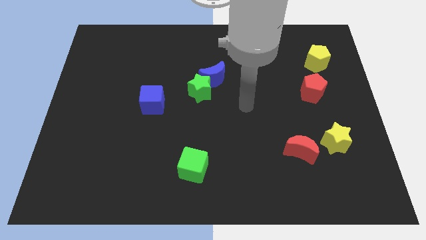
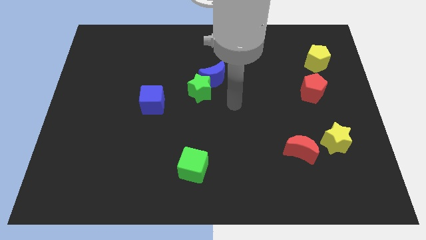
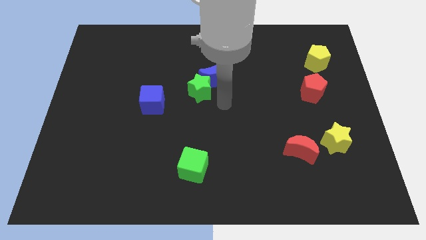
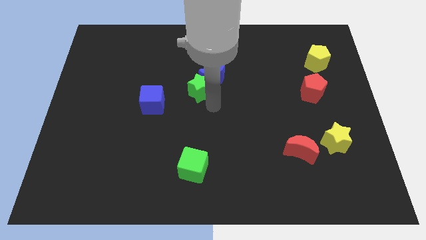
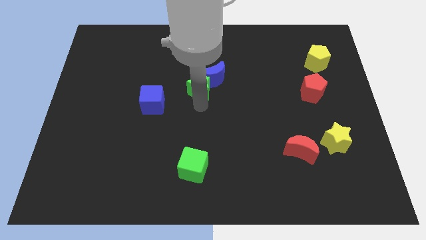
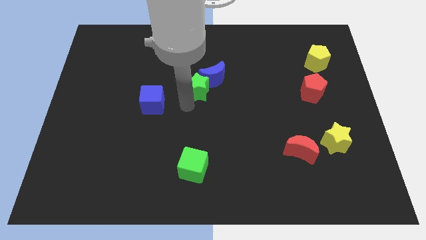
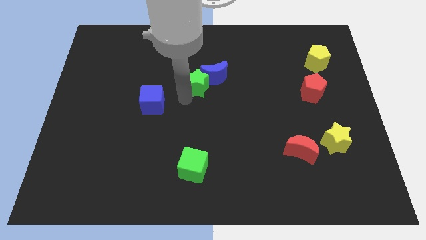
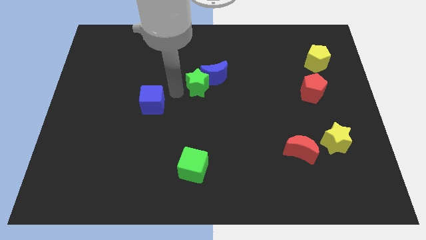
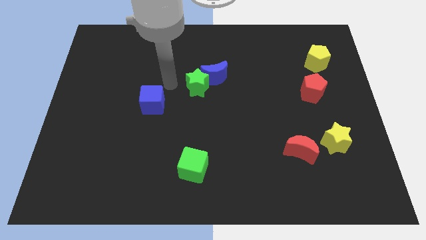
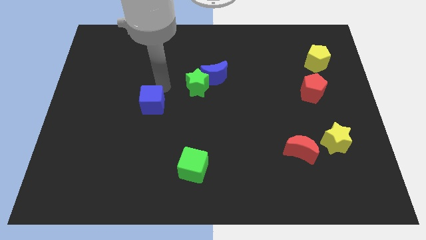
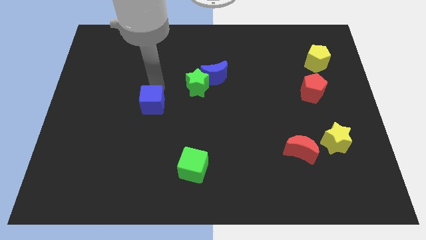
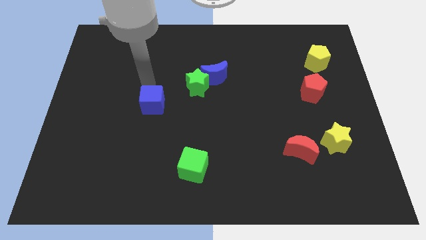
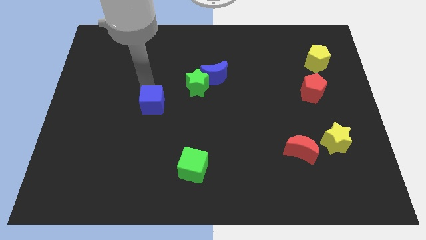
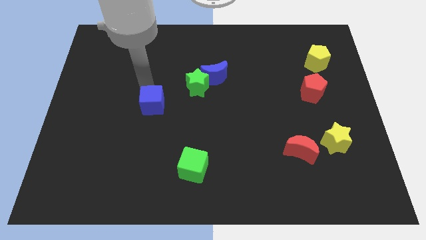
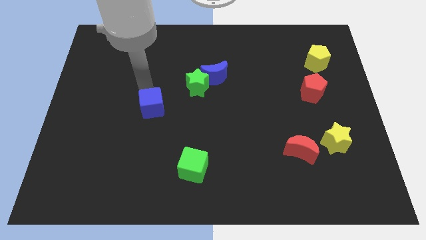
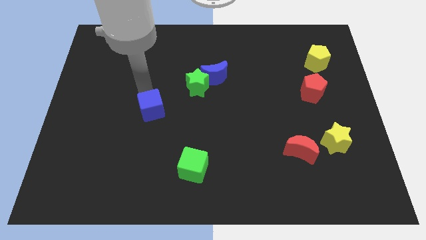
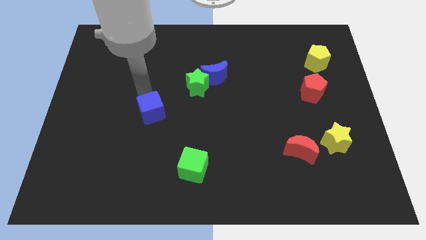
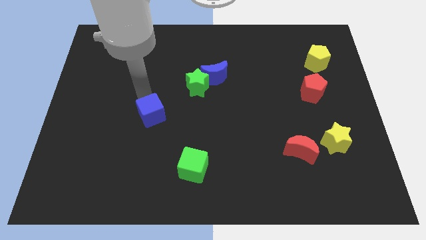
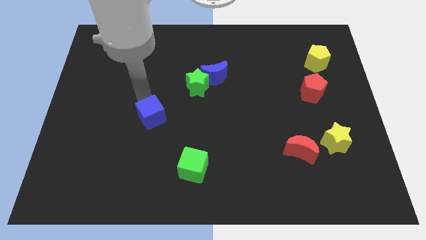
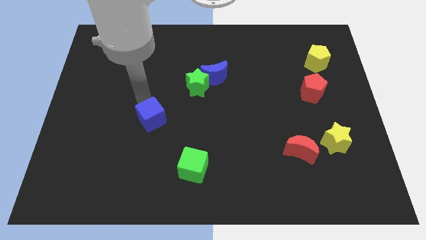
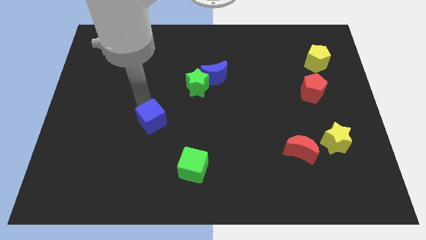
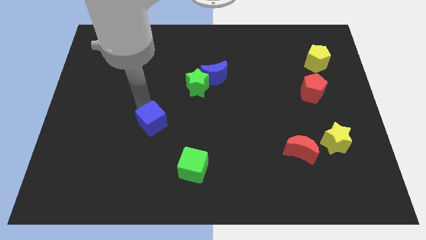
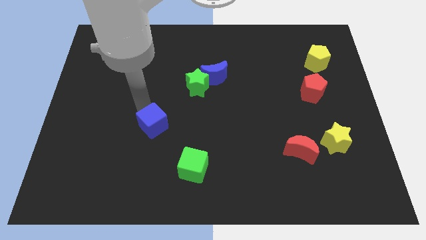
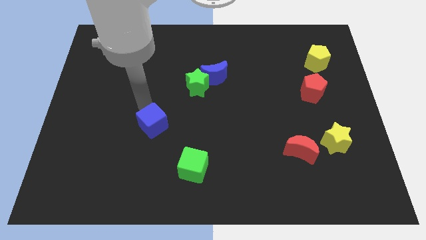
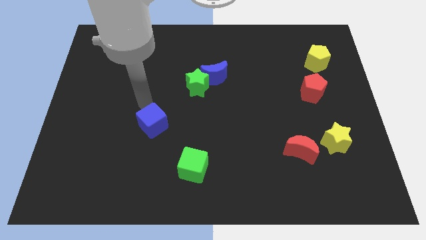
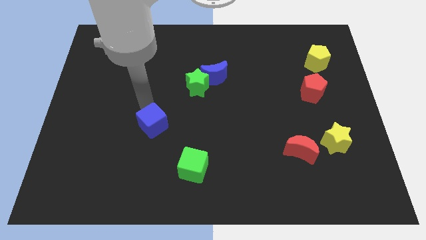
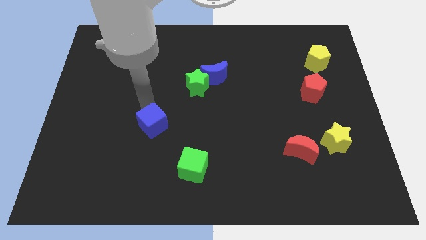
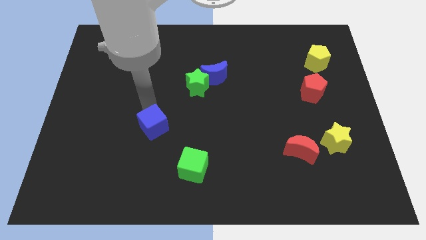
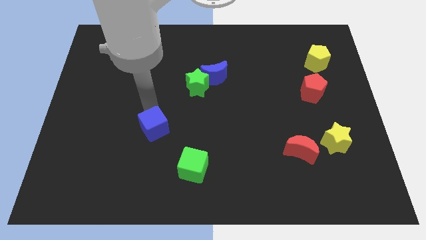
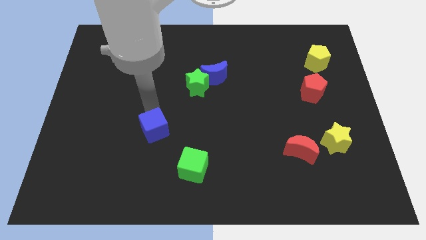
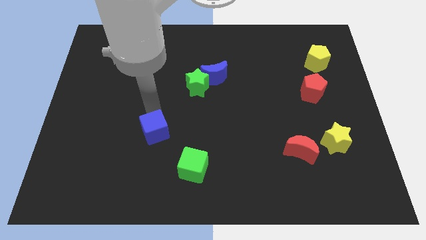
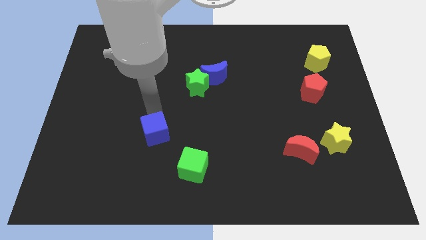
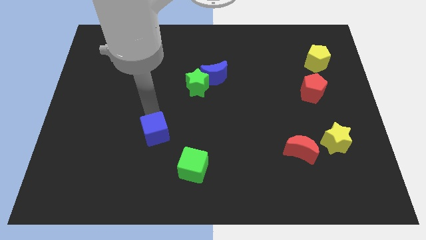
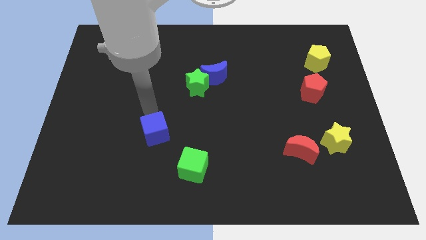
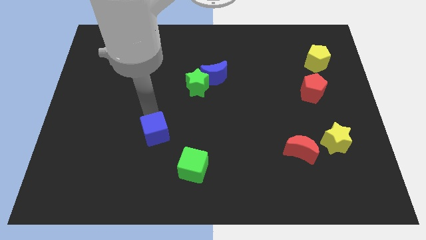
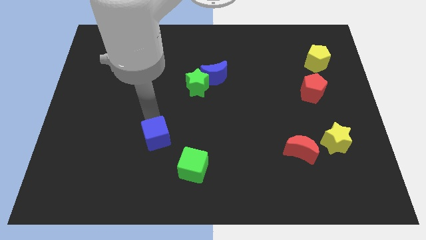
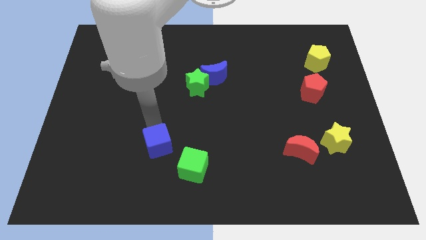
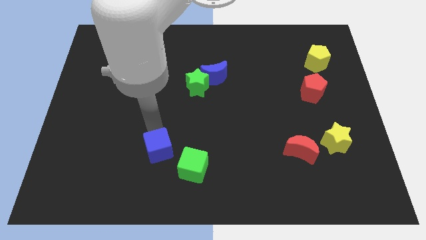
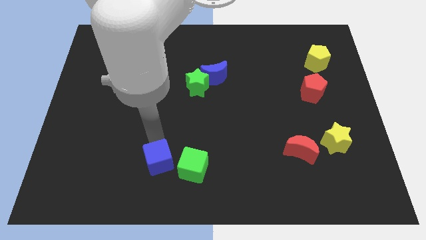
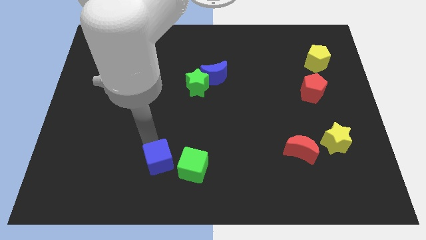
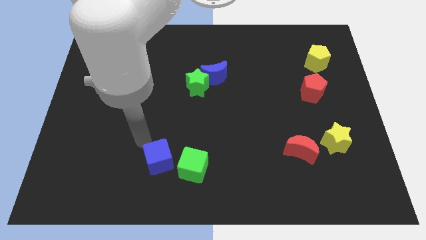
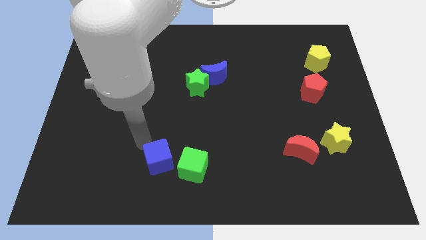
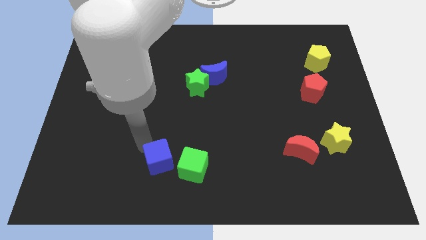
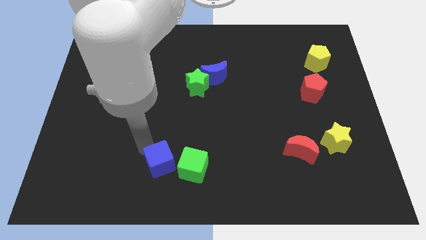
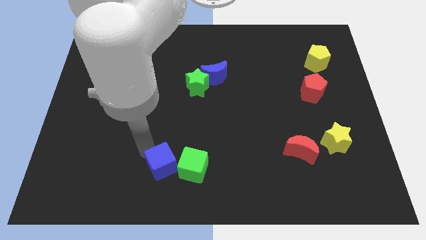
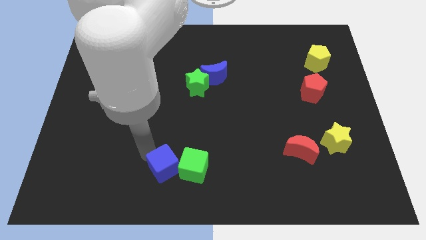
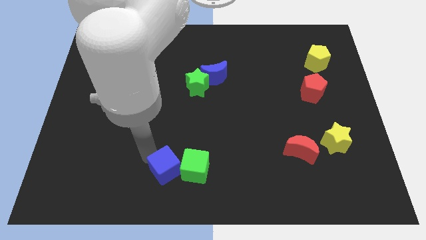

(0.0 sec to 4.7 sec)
push the blue cube to the bottom side

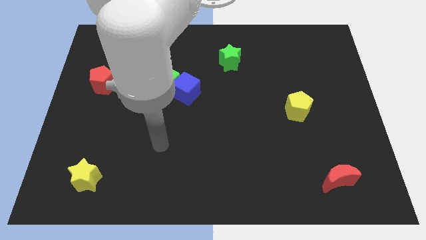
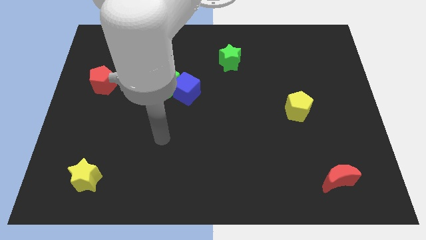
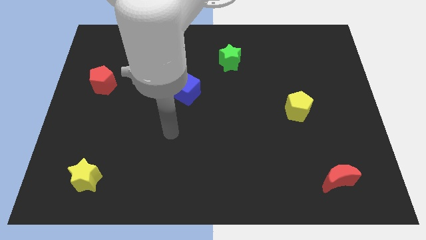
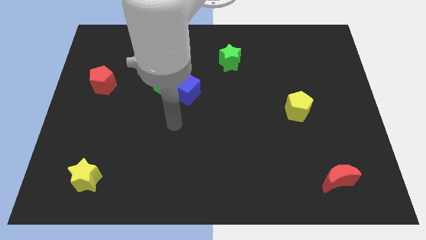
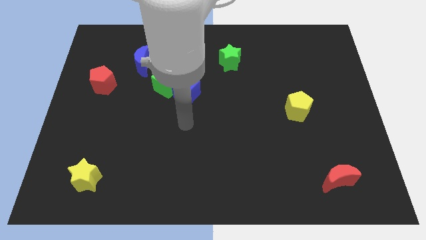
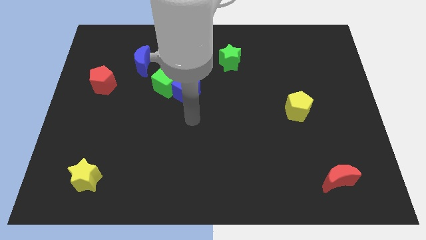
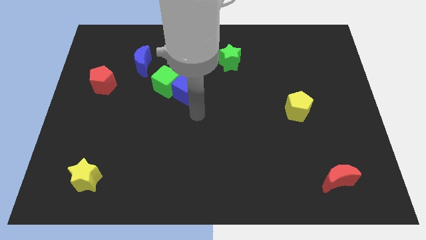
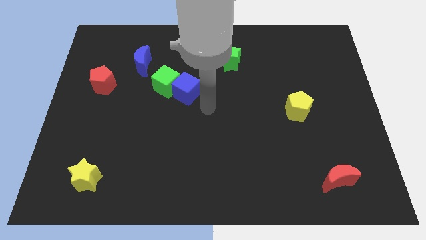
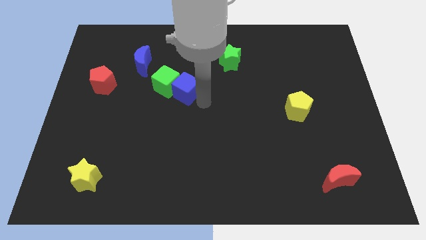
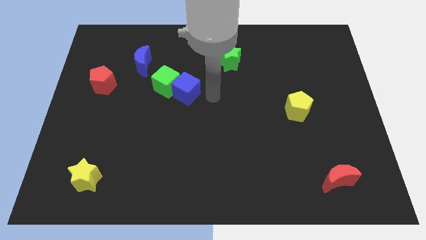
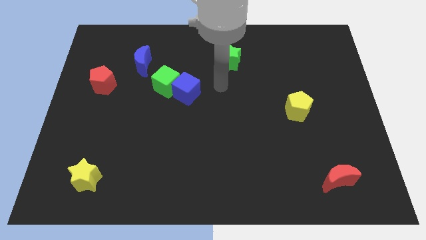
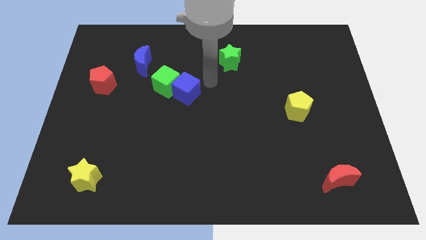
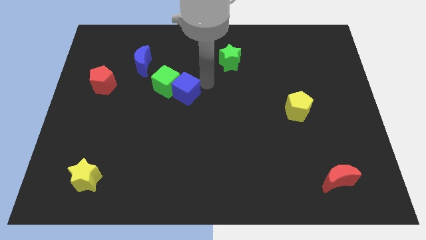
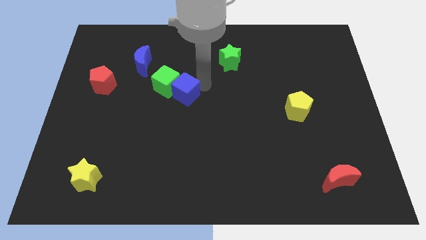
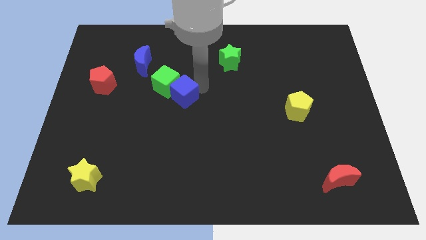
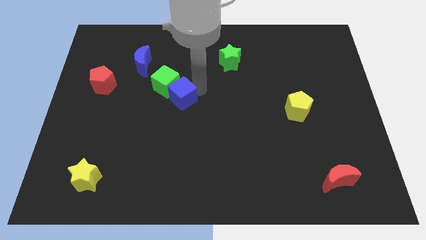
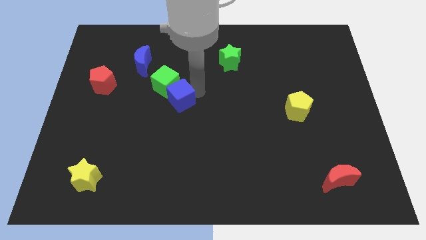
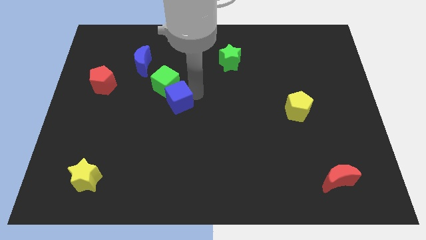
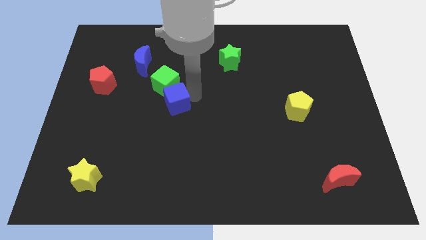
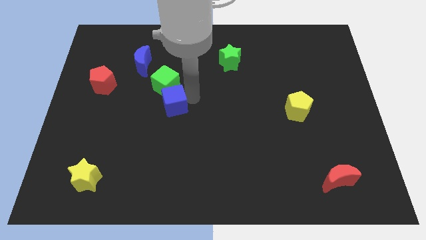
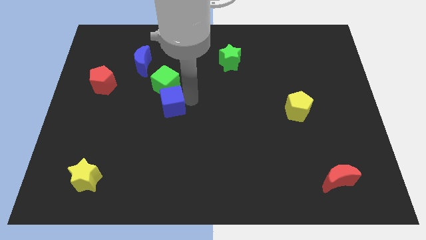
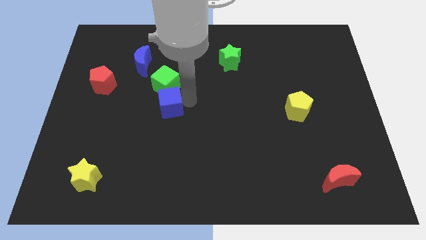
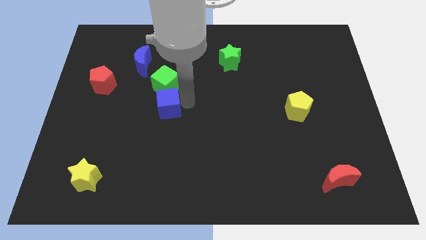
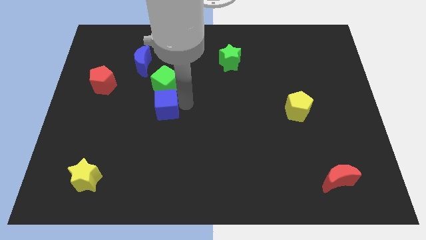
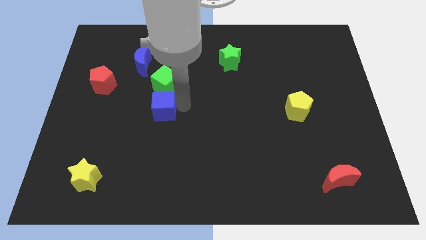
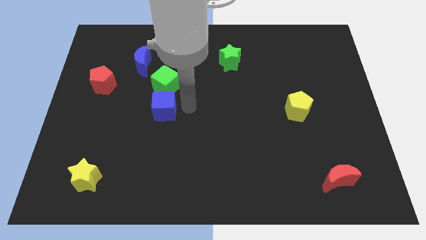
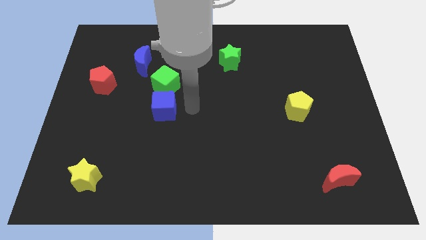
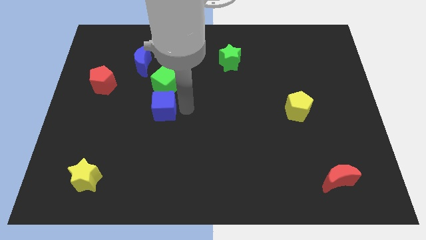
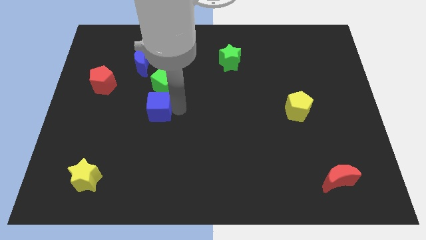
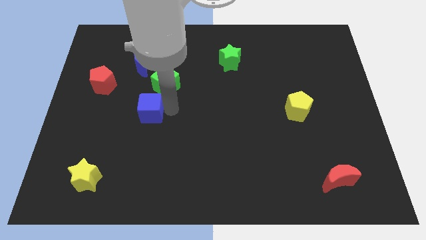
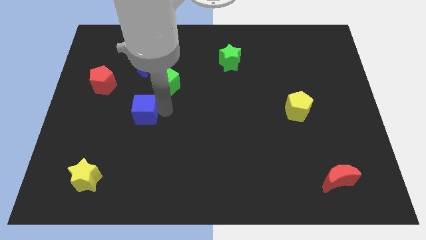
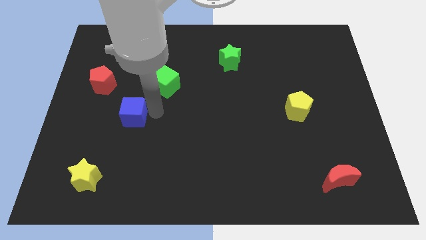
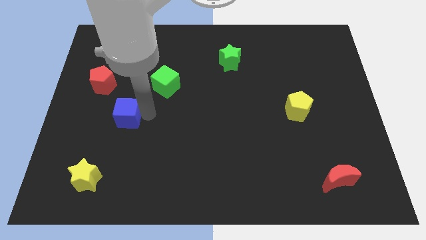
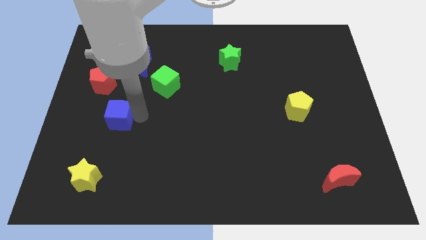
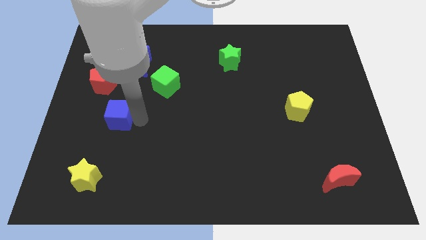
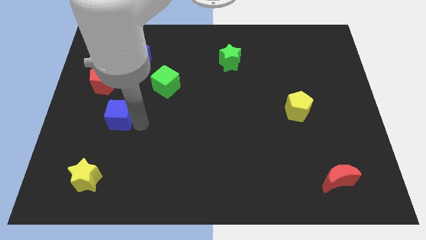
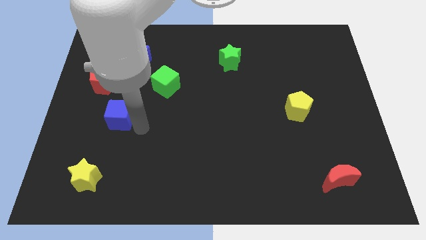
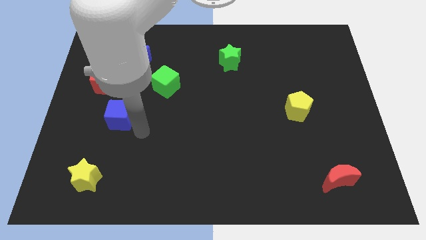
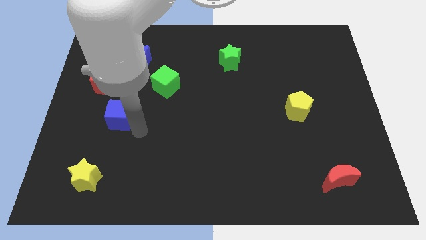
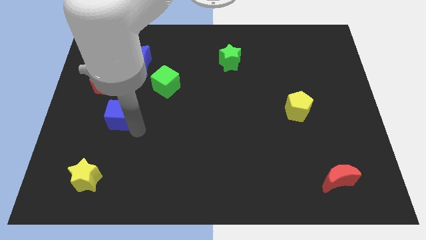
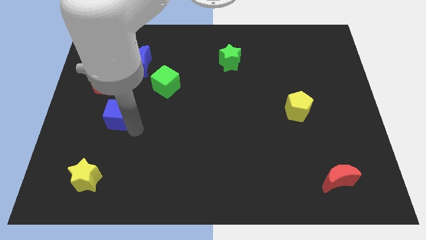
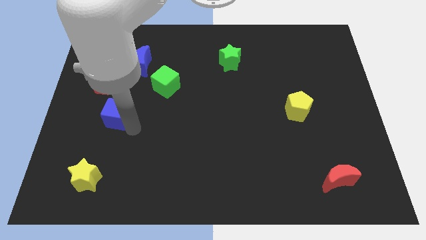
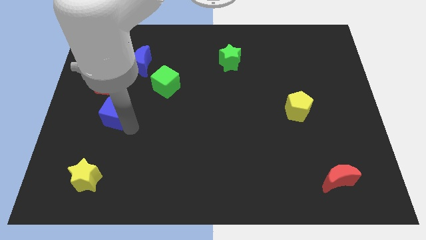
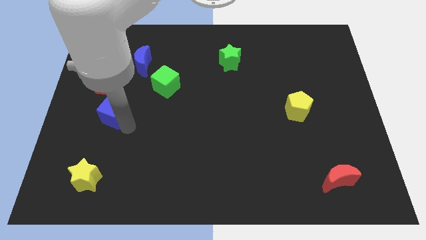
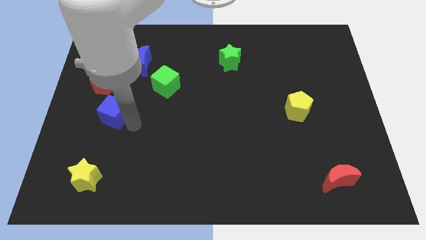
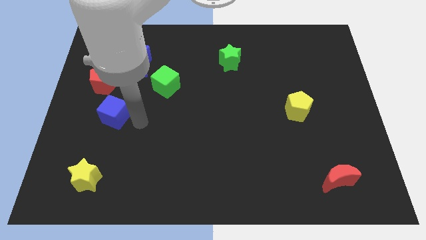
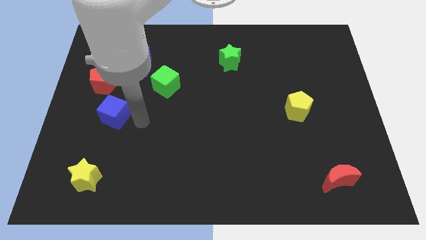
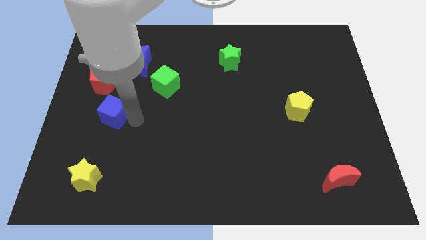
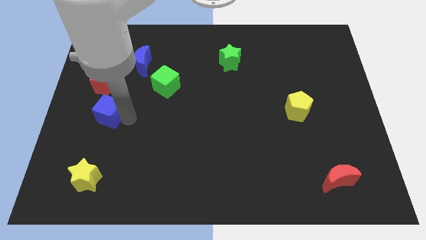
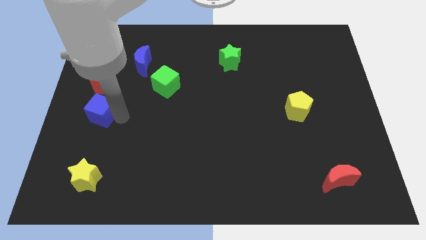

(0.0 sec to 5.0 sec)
put the blue cube to the left side
